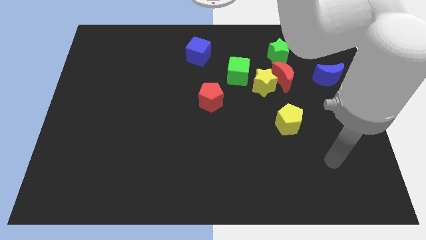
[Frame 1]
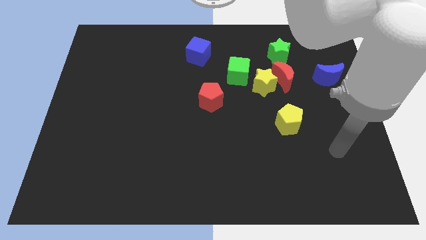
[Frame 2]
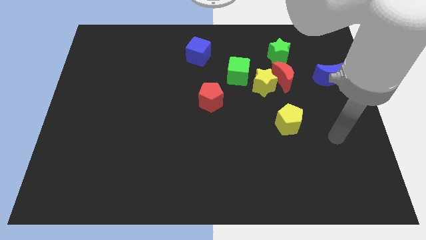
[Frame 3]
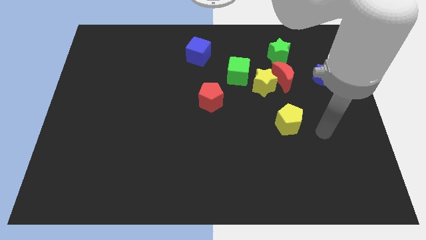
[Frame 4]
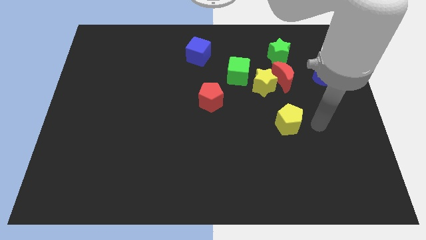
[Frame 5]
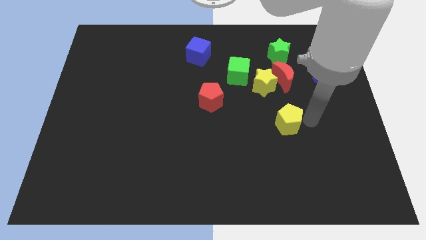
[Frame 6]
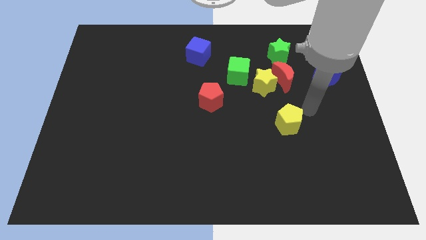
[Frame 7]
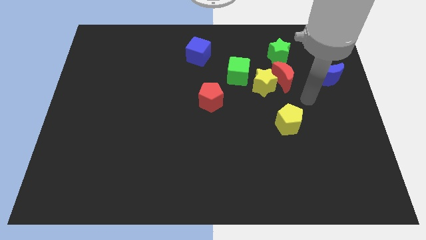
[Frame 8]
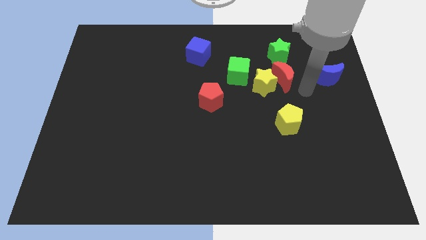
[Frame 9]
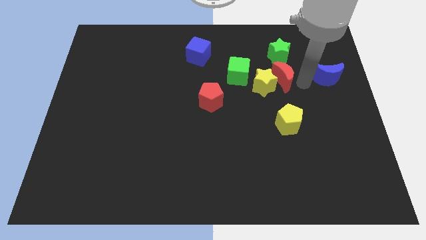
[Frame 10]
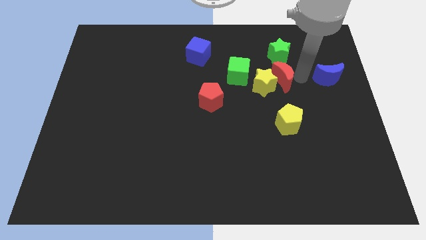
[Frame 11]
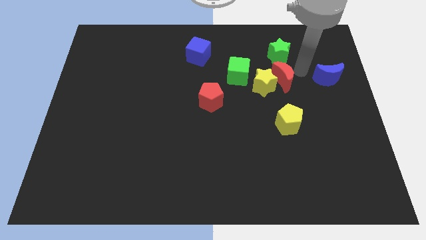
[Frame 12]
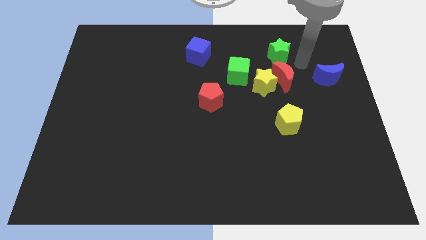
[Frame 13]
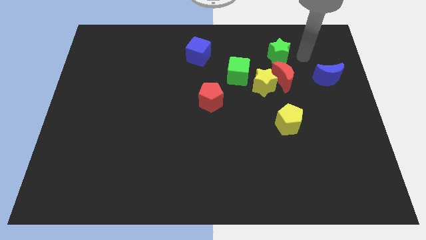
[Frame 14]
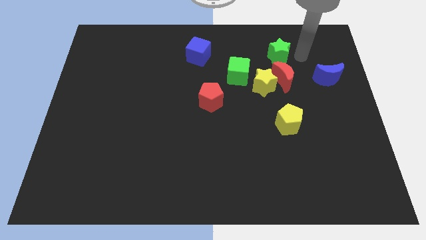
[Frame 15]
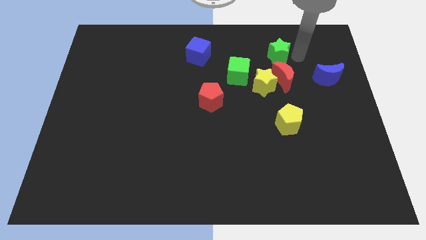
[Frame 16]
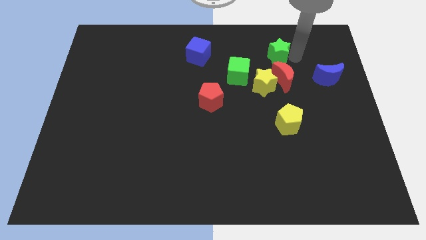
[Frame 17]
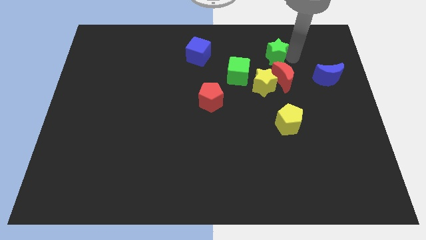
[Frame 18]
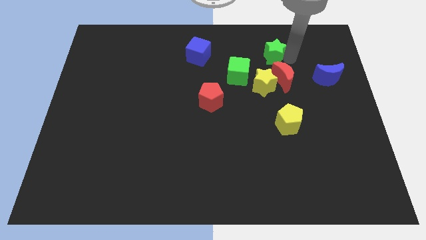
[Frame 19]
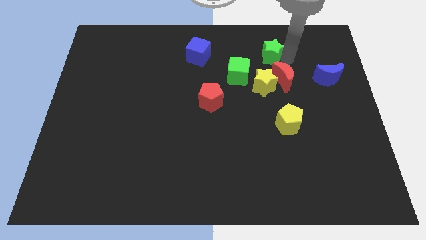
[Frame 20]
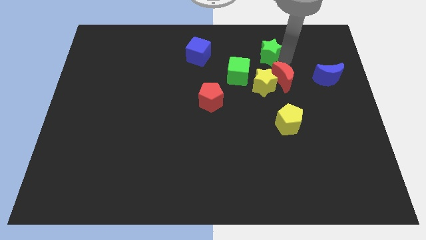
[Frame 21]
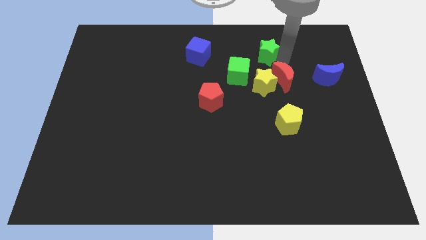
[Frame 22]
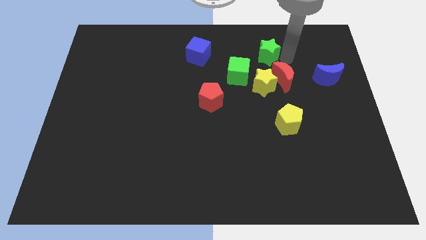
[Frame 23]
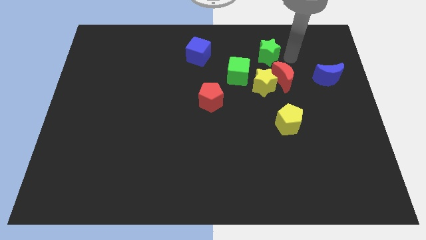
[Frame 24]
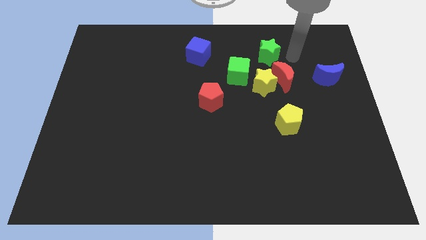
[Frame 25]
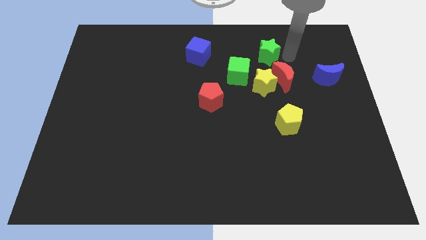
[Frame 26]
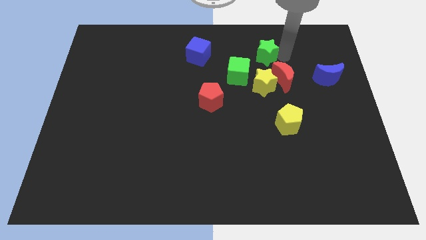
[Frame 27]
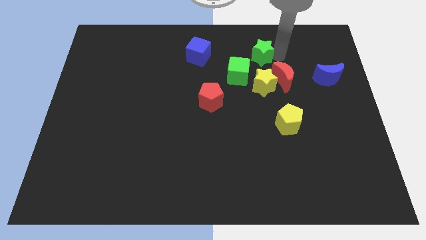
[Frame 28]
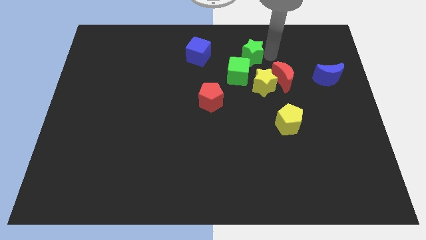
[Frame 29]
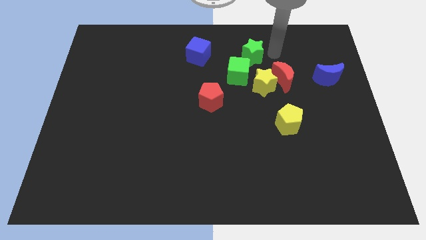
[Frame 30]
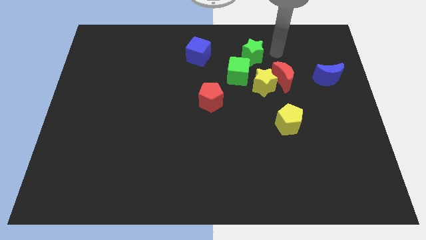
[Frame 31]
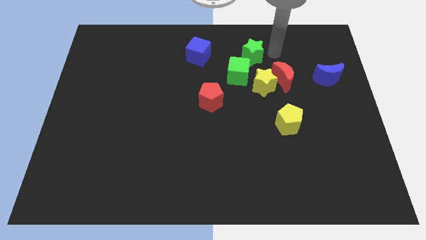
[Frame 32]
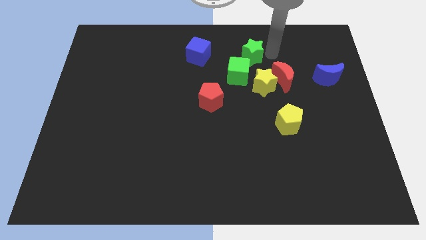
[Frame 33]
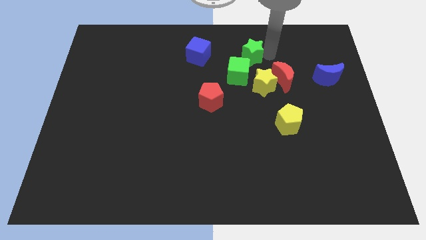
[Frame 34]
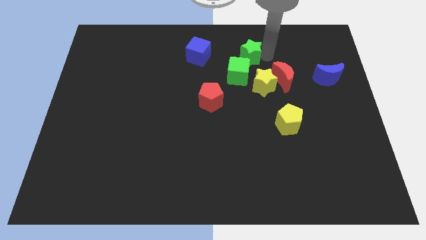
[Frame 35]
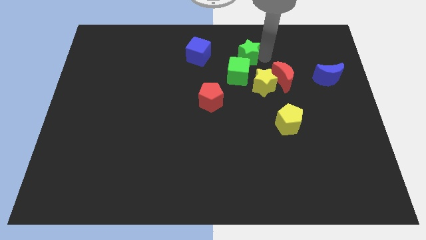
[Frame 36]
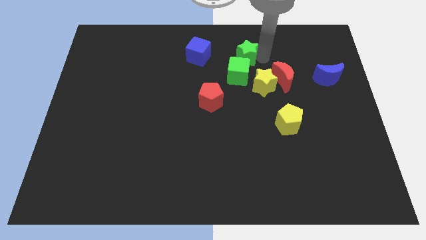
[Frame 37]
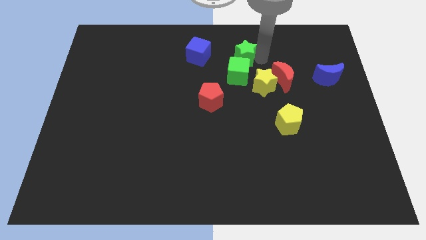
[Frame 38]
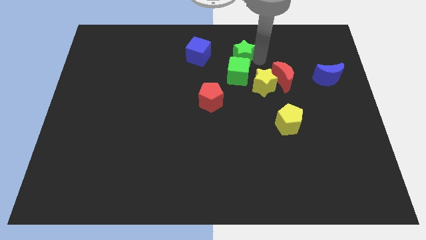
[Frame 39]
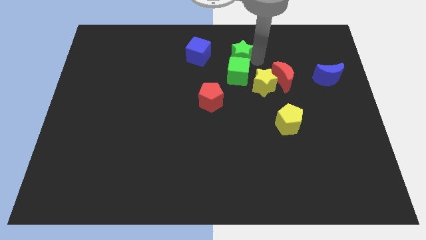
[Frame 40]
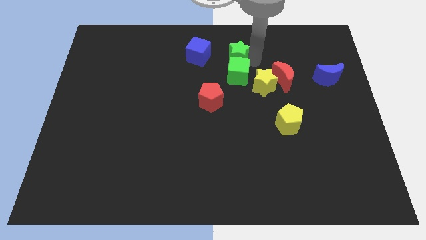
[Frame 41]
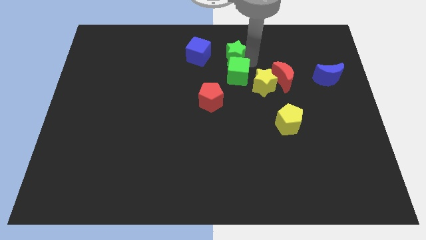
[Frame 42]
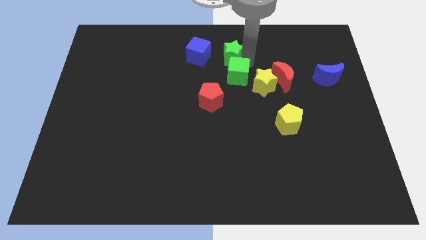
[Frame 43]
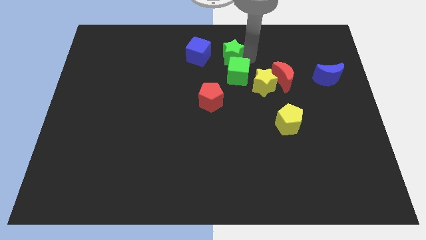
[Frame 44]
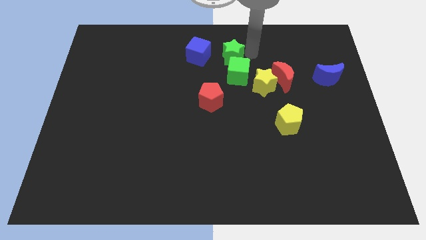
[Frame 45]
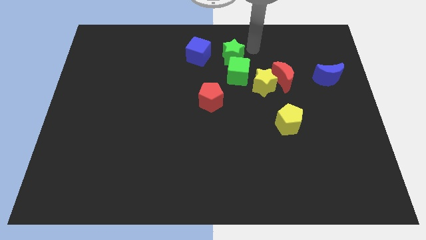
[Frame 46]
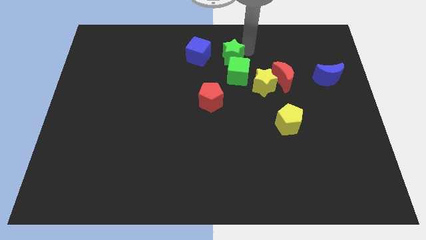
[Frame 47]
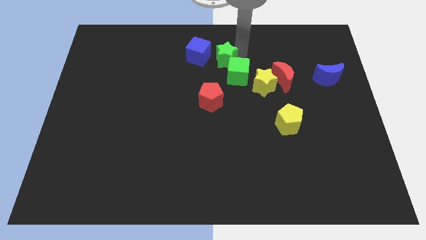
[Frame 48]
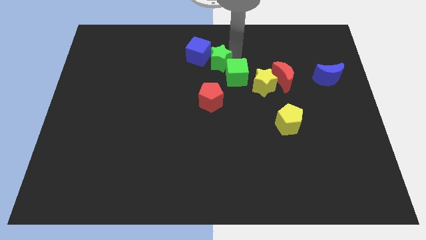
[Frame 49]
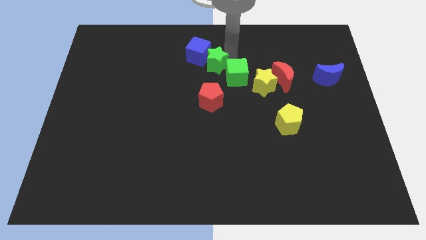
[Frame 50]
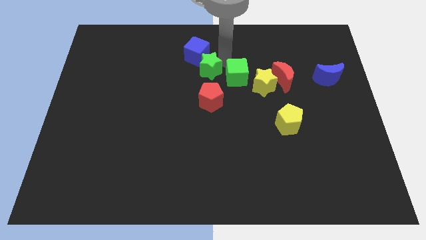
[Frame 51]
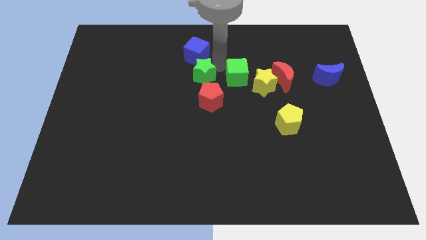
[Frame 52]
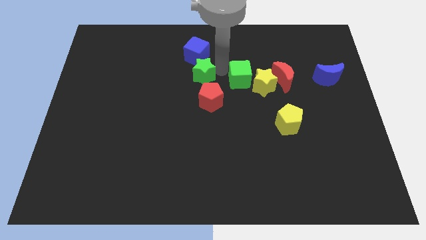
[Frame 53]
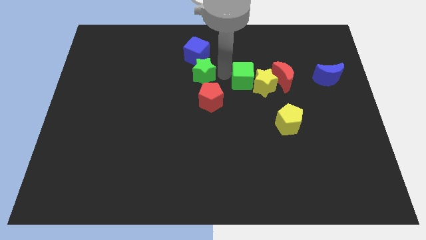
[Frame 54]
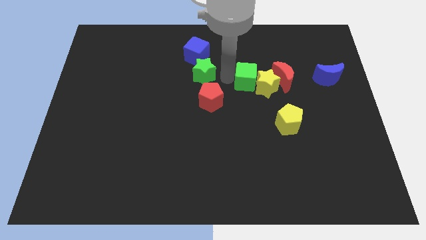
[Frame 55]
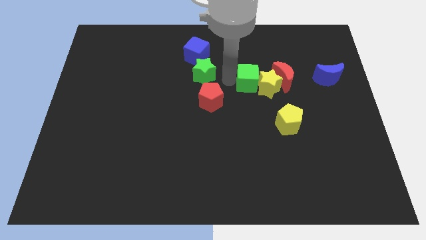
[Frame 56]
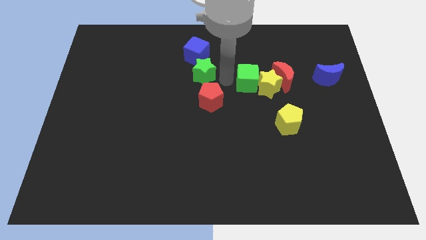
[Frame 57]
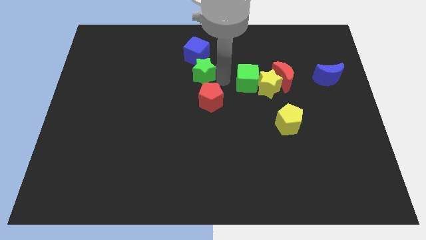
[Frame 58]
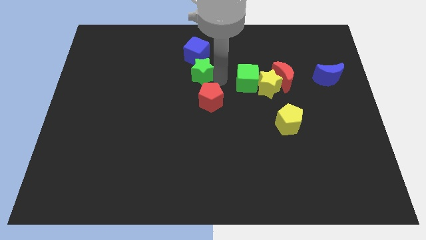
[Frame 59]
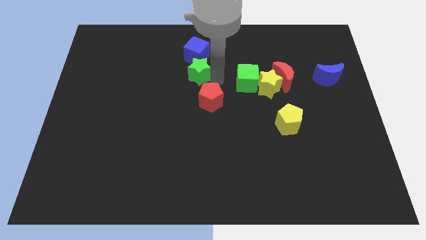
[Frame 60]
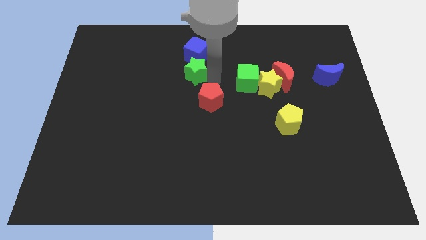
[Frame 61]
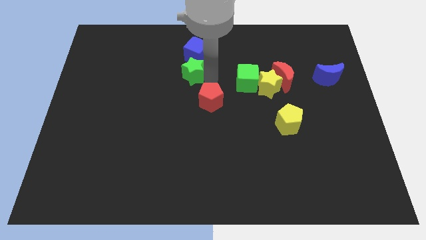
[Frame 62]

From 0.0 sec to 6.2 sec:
move the green star to the bottom left of the blue cube

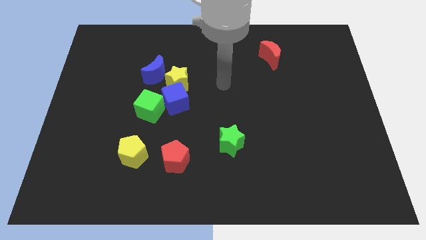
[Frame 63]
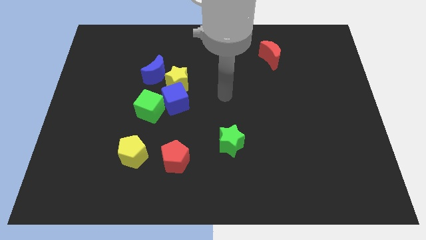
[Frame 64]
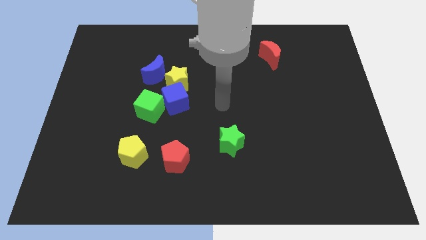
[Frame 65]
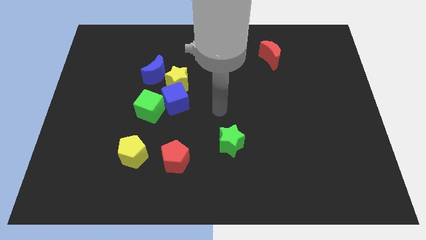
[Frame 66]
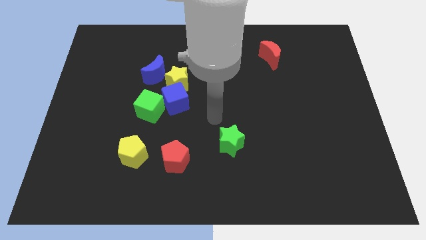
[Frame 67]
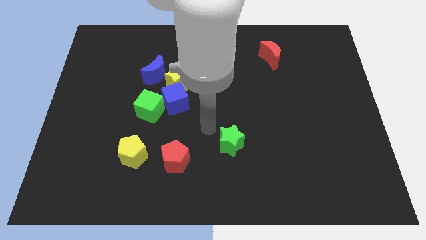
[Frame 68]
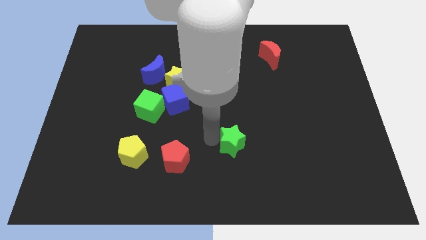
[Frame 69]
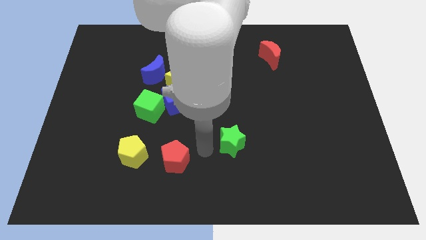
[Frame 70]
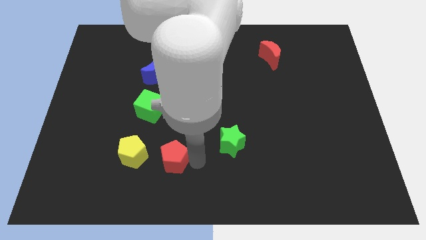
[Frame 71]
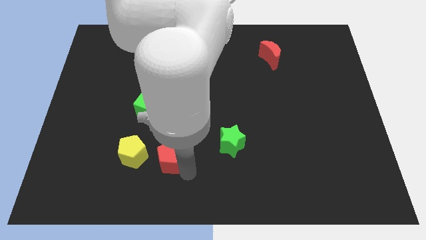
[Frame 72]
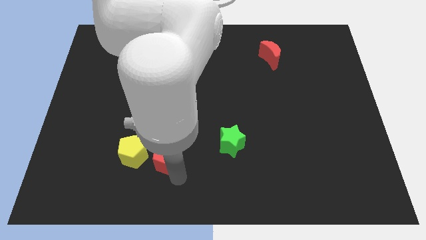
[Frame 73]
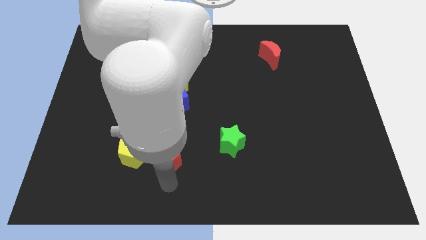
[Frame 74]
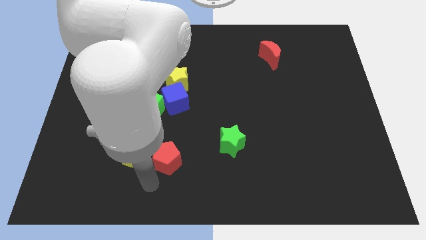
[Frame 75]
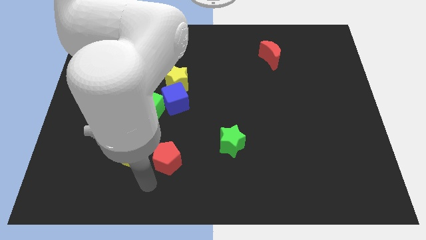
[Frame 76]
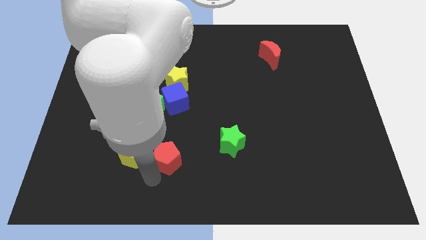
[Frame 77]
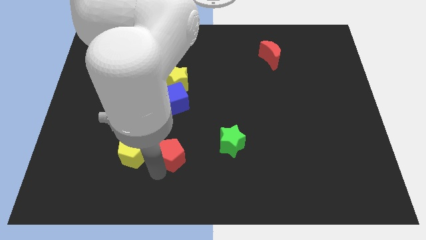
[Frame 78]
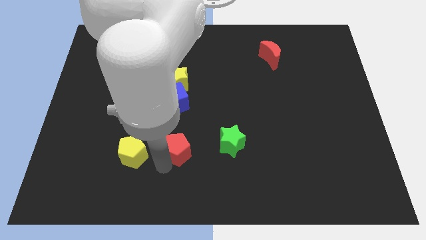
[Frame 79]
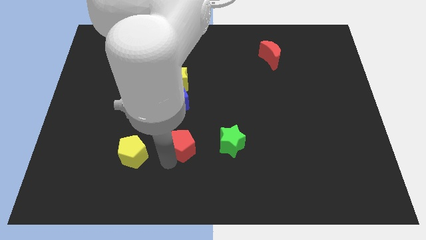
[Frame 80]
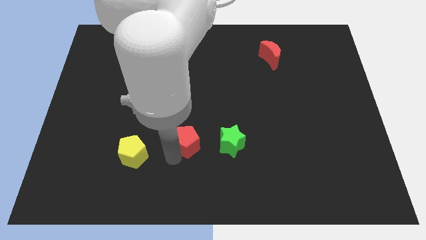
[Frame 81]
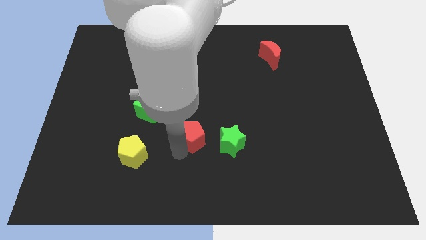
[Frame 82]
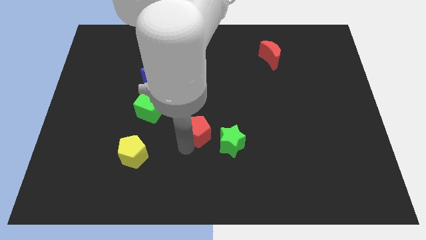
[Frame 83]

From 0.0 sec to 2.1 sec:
put the red pentagon to the bottom right of the blue cube
